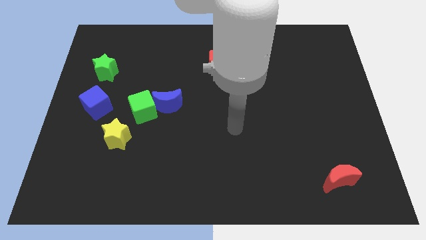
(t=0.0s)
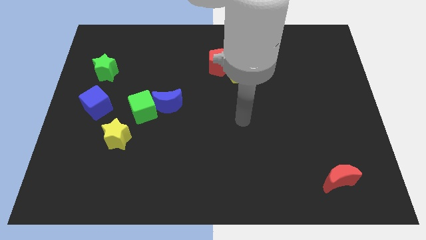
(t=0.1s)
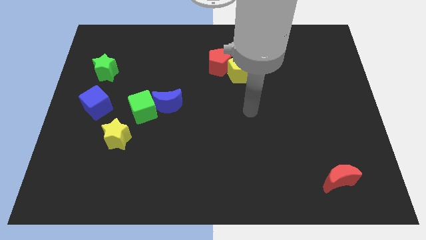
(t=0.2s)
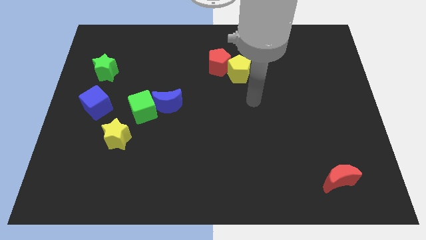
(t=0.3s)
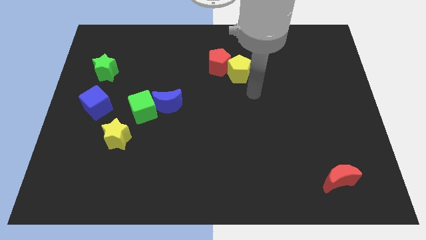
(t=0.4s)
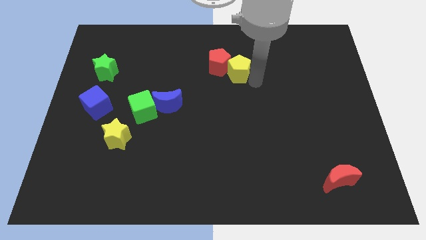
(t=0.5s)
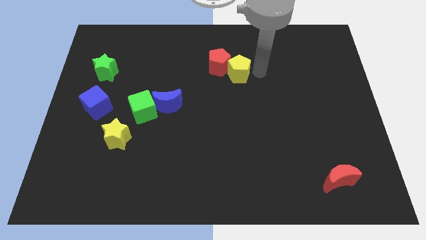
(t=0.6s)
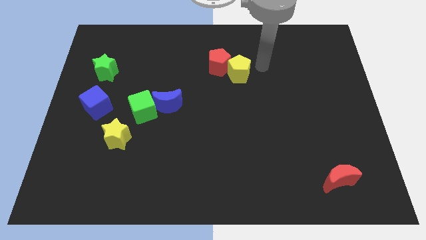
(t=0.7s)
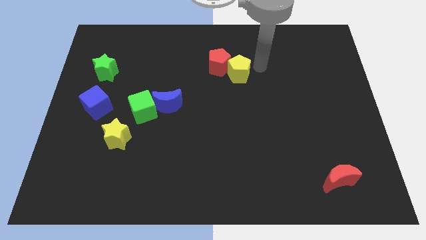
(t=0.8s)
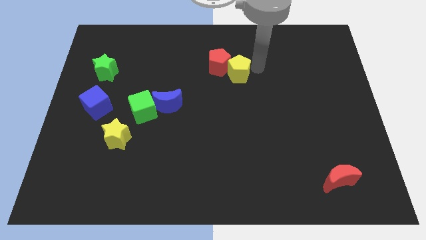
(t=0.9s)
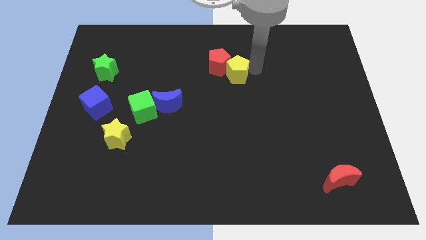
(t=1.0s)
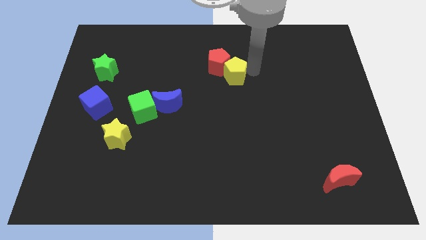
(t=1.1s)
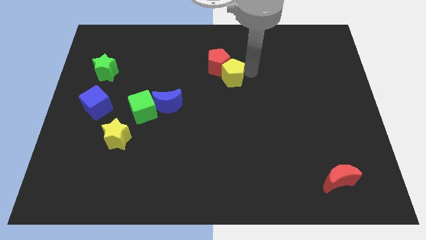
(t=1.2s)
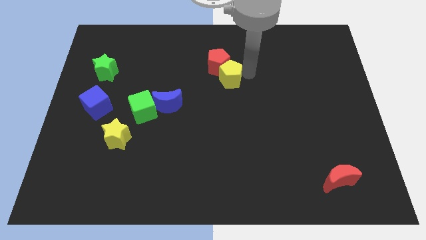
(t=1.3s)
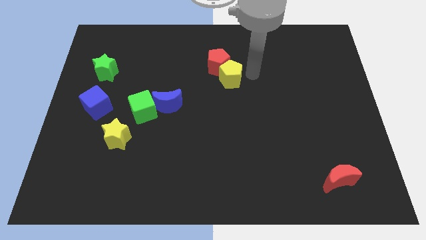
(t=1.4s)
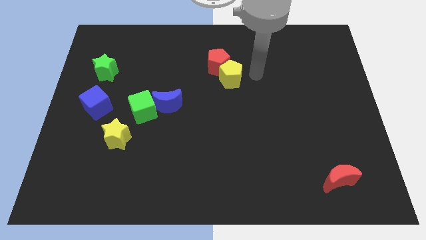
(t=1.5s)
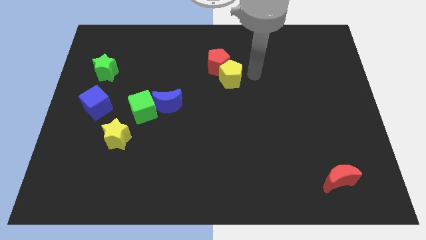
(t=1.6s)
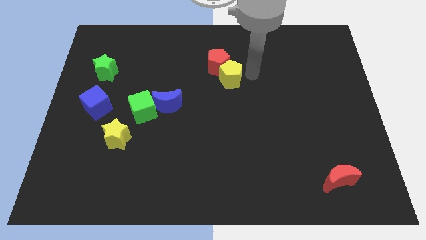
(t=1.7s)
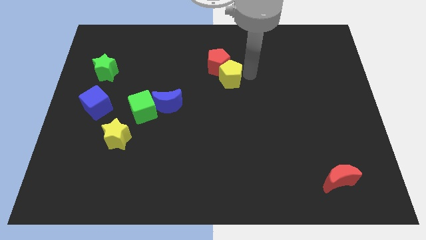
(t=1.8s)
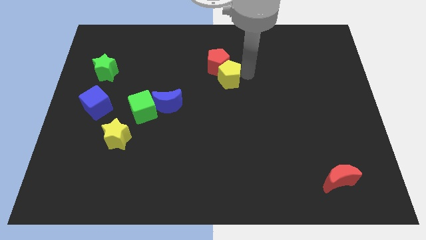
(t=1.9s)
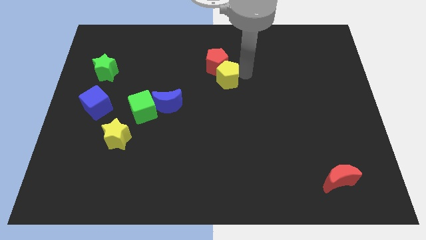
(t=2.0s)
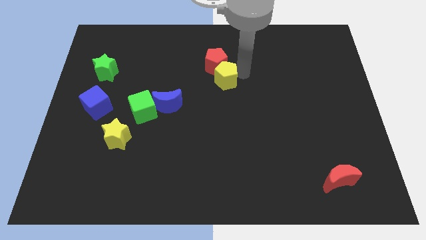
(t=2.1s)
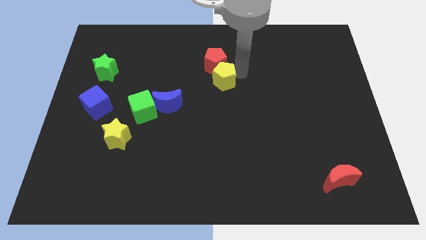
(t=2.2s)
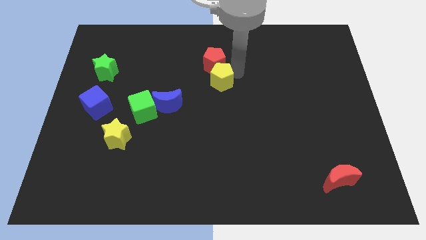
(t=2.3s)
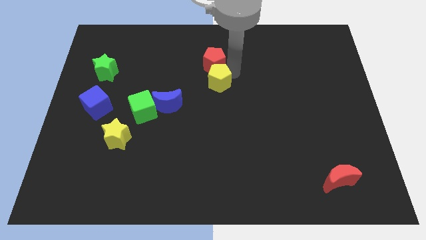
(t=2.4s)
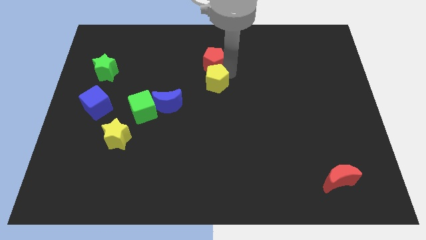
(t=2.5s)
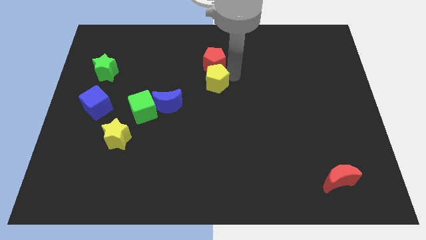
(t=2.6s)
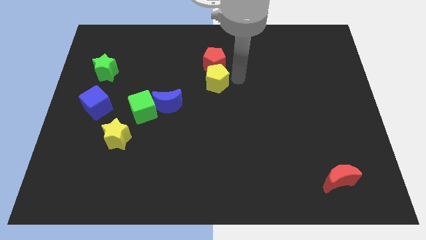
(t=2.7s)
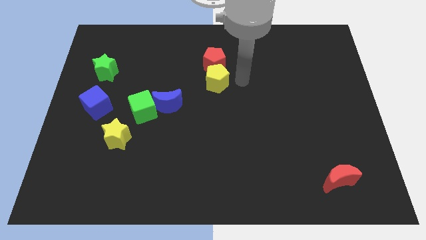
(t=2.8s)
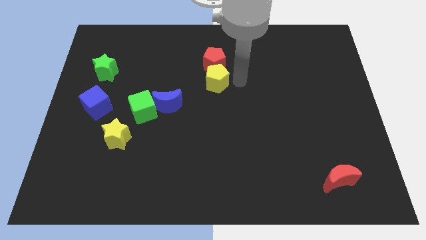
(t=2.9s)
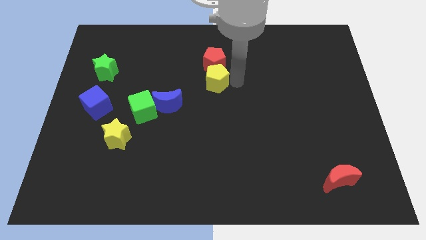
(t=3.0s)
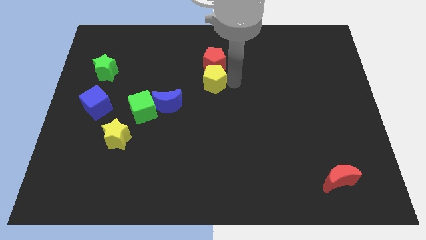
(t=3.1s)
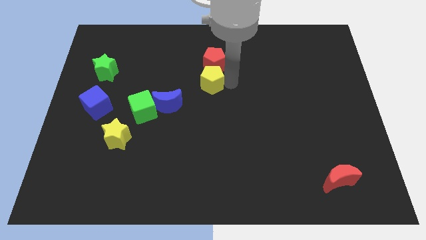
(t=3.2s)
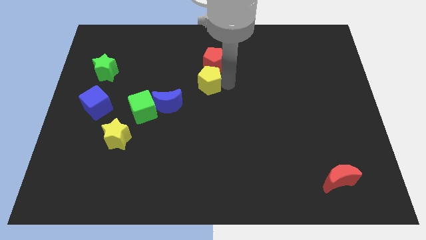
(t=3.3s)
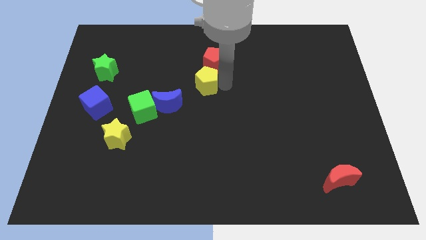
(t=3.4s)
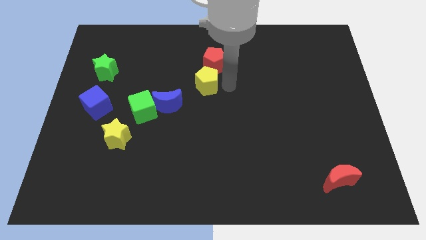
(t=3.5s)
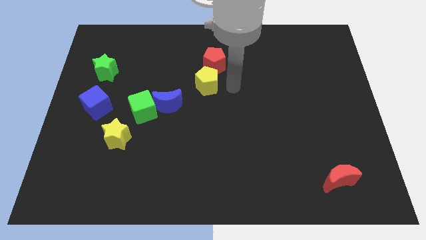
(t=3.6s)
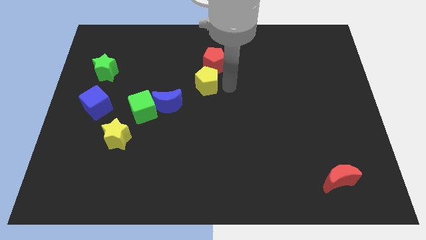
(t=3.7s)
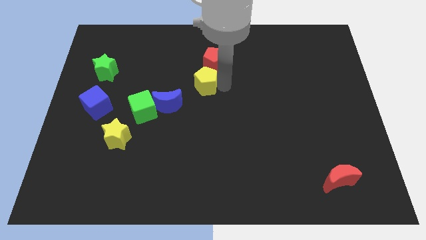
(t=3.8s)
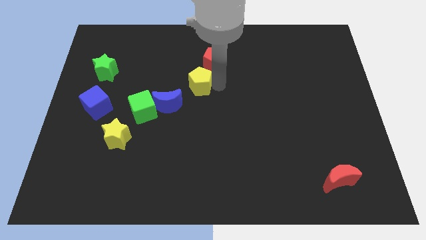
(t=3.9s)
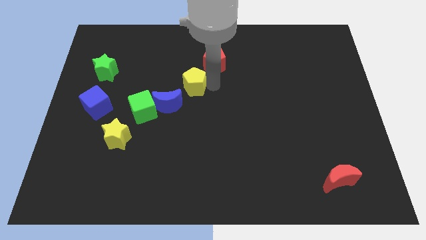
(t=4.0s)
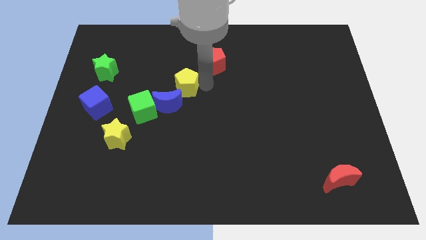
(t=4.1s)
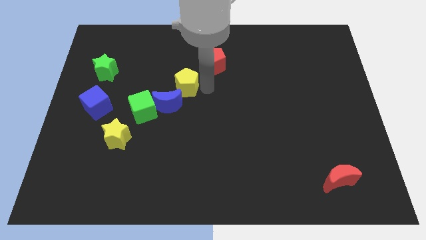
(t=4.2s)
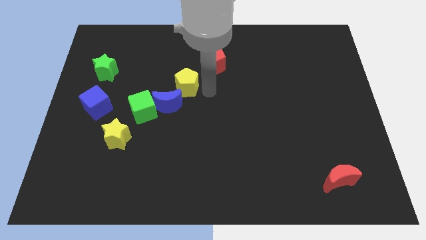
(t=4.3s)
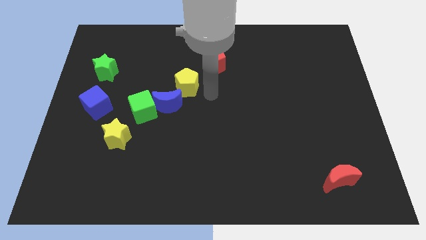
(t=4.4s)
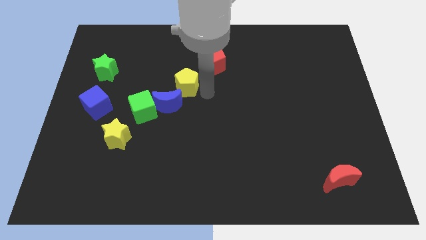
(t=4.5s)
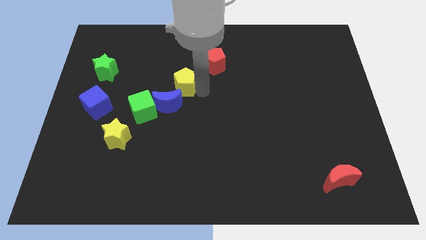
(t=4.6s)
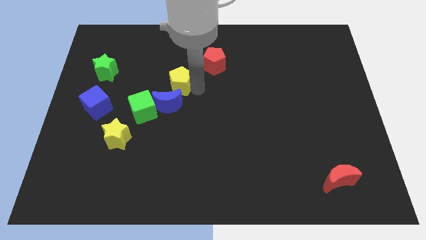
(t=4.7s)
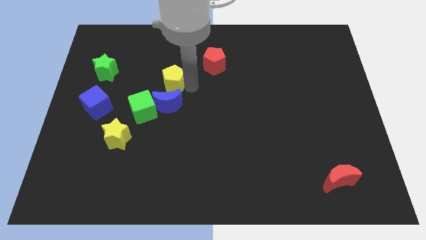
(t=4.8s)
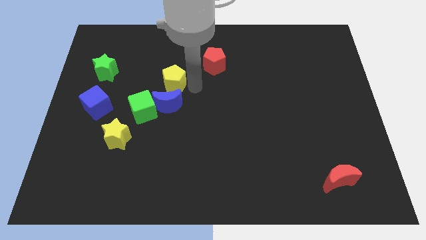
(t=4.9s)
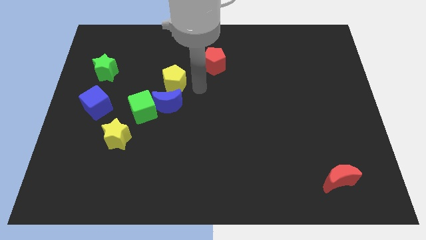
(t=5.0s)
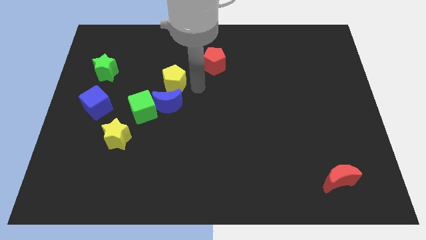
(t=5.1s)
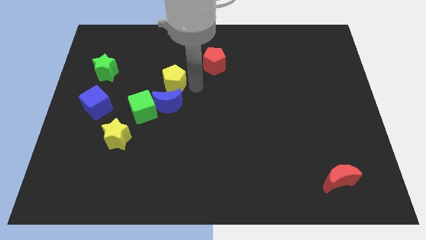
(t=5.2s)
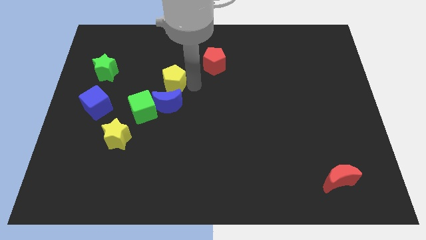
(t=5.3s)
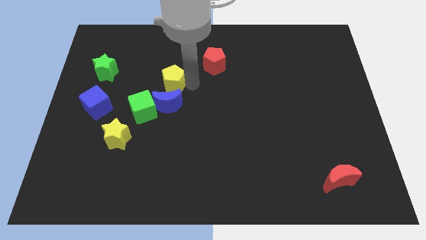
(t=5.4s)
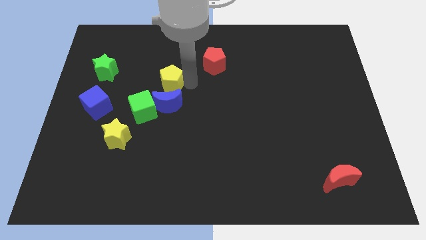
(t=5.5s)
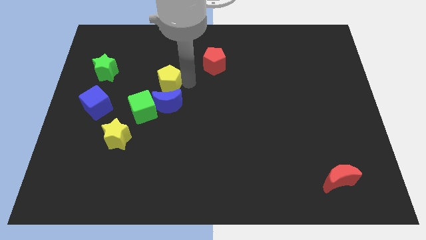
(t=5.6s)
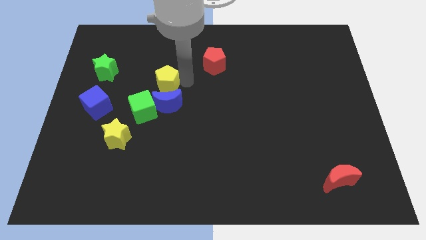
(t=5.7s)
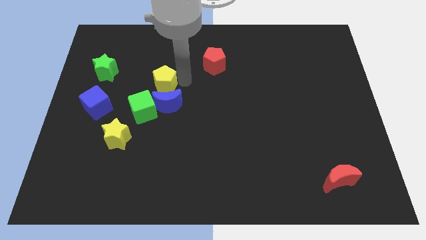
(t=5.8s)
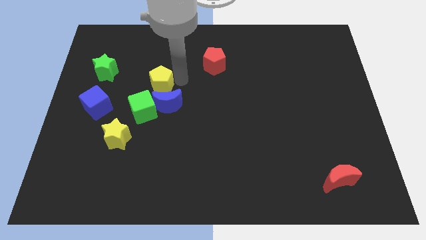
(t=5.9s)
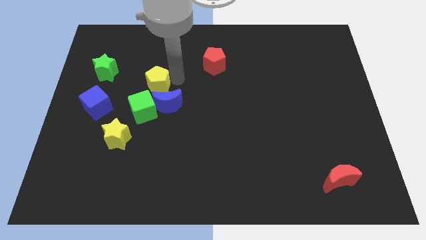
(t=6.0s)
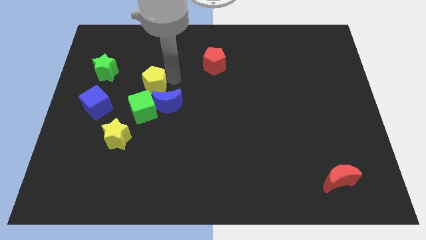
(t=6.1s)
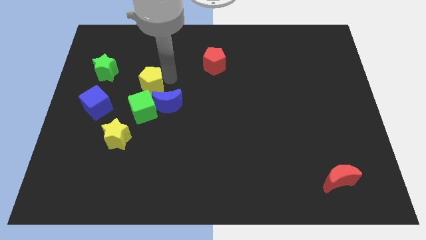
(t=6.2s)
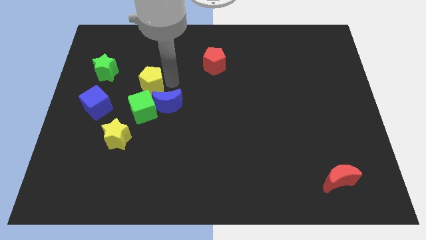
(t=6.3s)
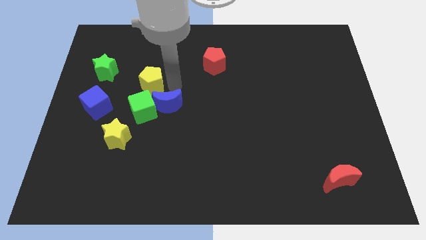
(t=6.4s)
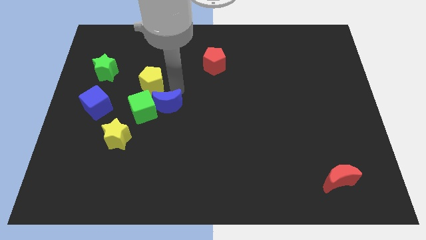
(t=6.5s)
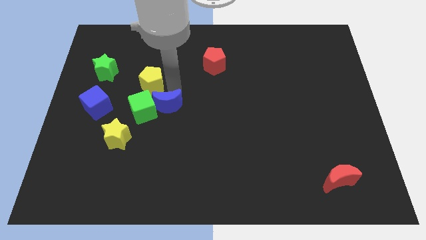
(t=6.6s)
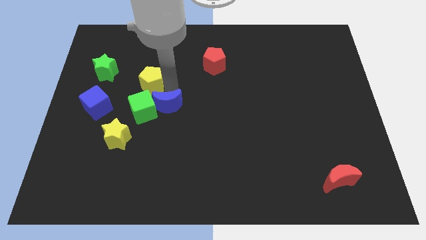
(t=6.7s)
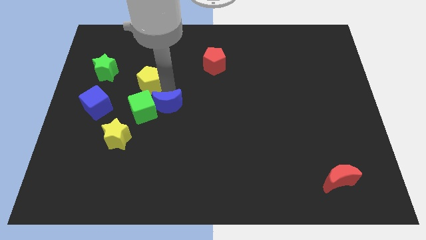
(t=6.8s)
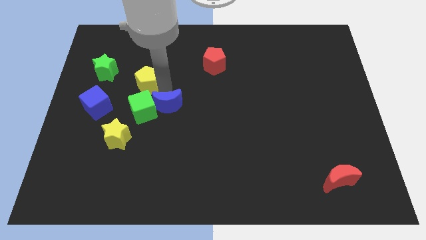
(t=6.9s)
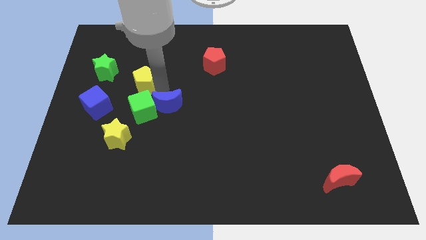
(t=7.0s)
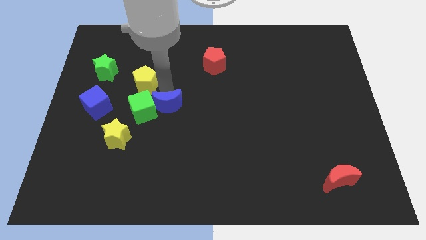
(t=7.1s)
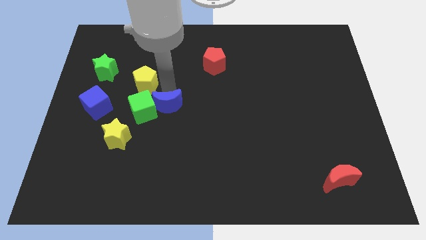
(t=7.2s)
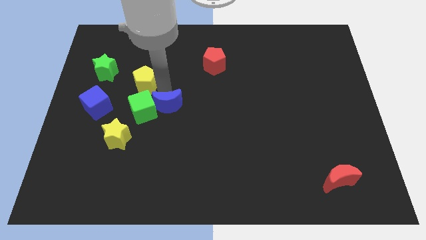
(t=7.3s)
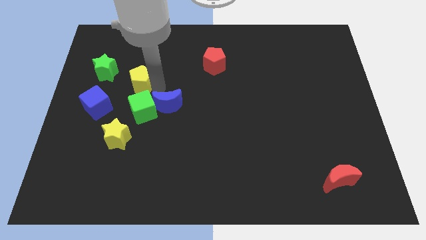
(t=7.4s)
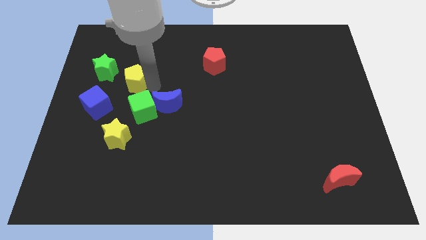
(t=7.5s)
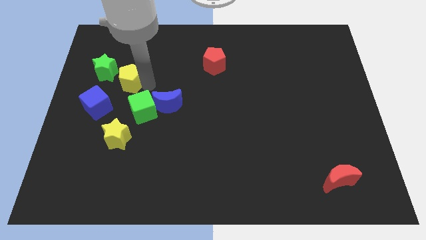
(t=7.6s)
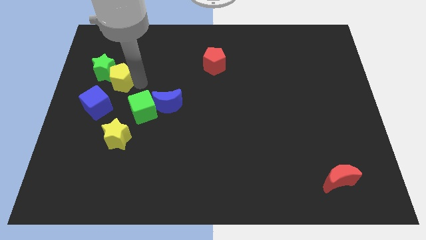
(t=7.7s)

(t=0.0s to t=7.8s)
slide the yellow pentagon next to the green star
